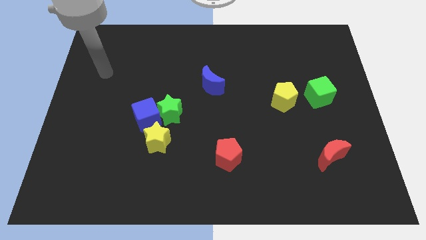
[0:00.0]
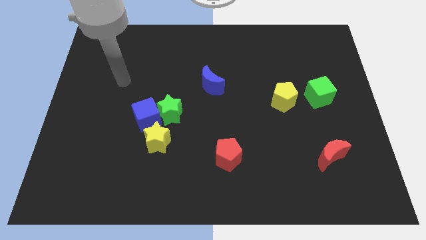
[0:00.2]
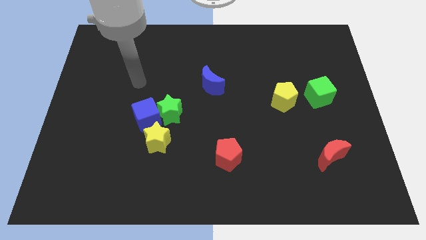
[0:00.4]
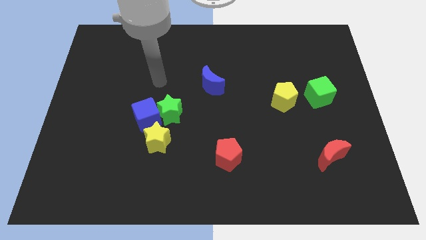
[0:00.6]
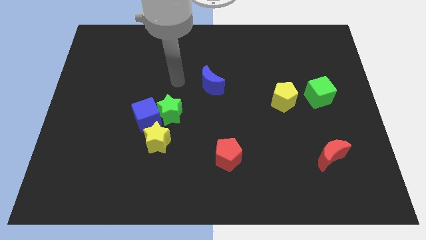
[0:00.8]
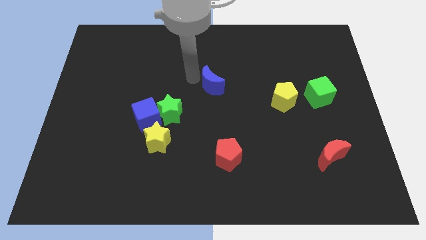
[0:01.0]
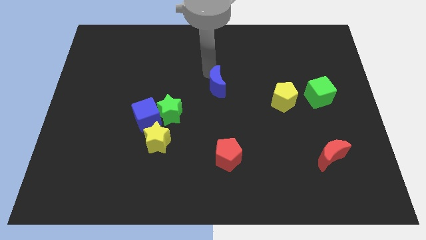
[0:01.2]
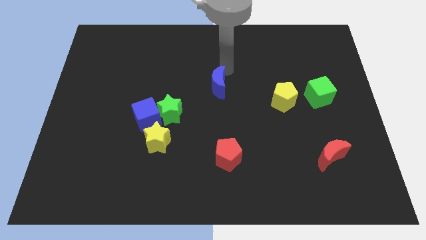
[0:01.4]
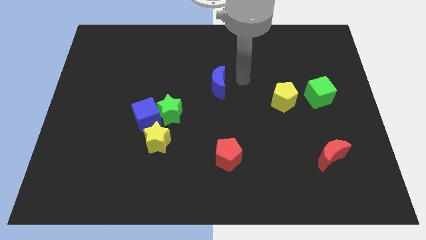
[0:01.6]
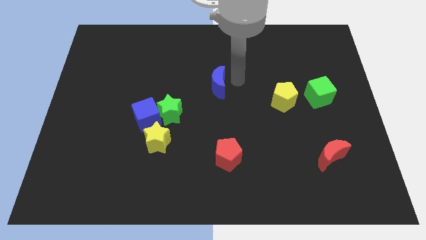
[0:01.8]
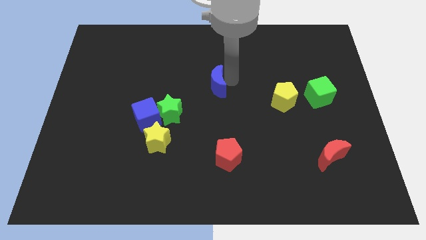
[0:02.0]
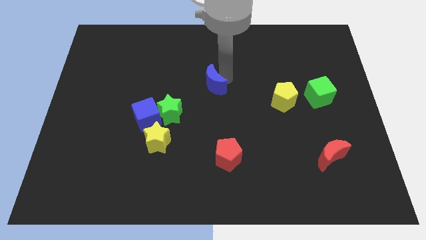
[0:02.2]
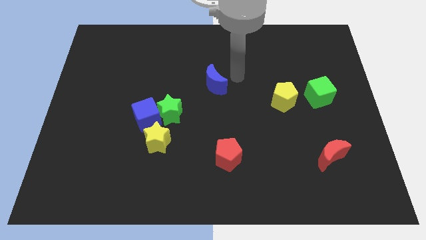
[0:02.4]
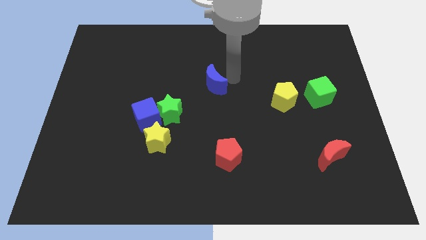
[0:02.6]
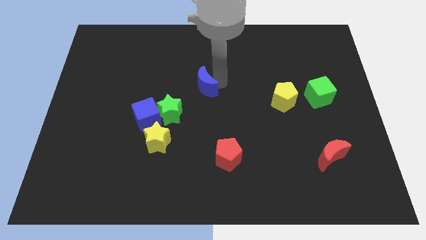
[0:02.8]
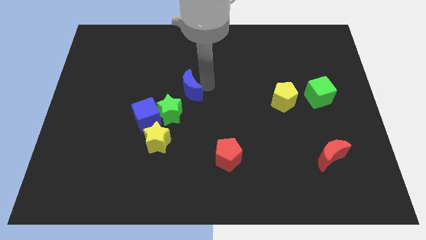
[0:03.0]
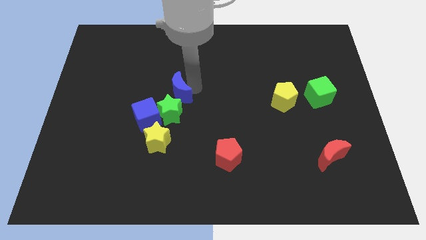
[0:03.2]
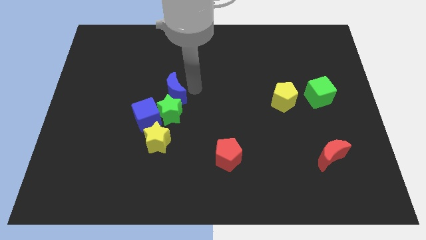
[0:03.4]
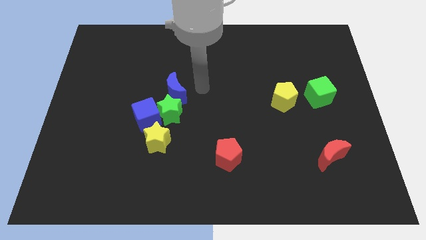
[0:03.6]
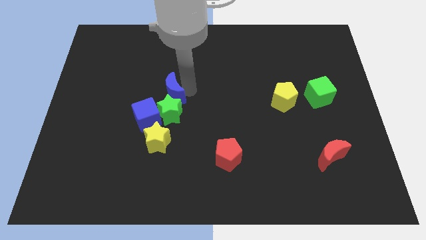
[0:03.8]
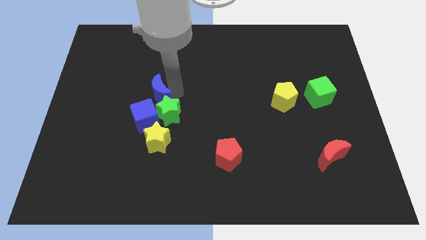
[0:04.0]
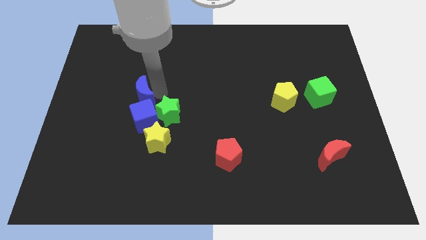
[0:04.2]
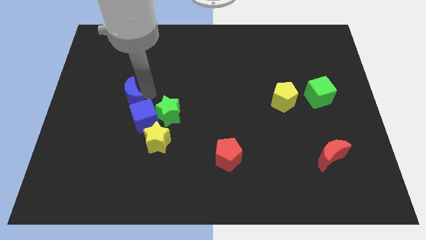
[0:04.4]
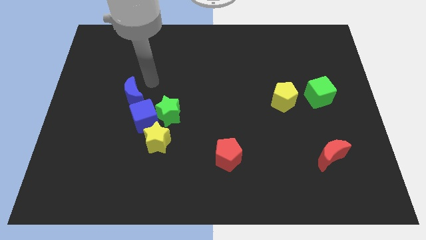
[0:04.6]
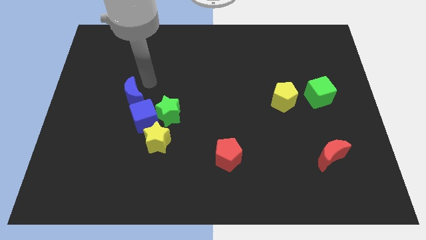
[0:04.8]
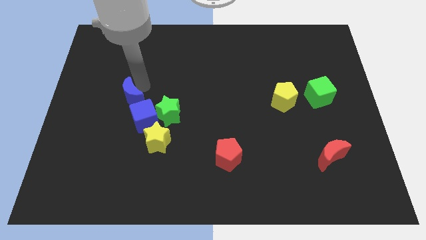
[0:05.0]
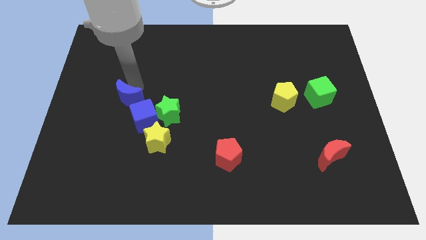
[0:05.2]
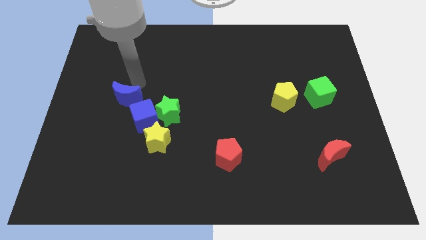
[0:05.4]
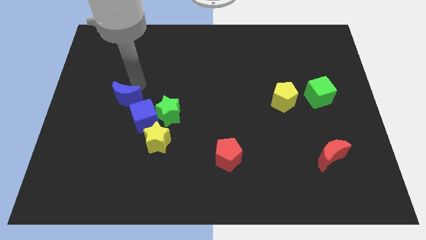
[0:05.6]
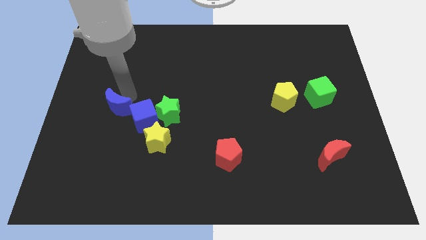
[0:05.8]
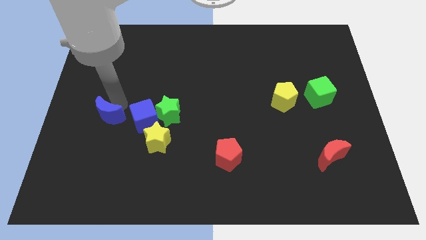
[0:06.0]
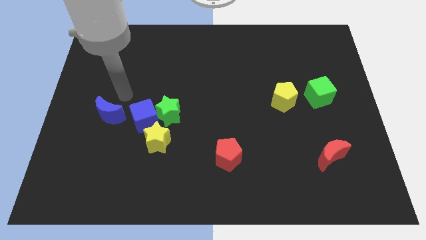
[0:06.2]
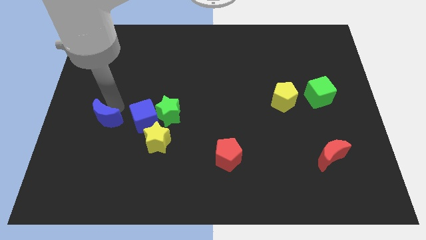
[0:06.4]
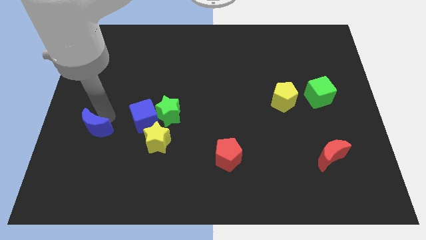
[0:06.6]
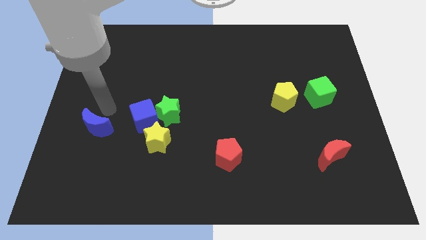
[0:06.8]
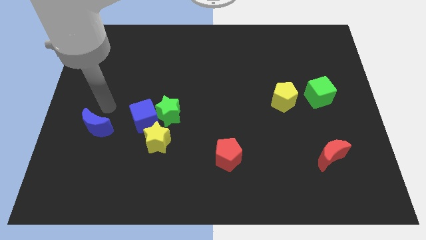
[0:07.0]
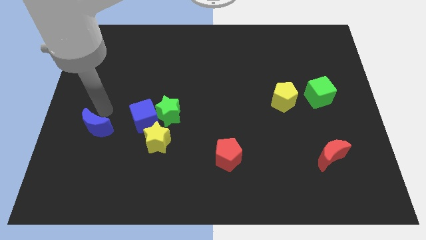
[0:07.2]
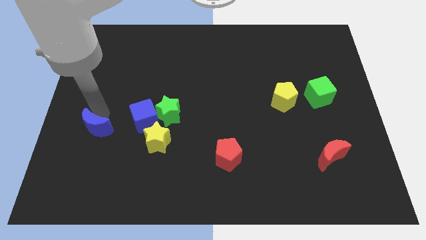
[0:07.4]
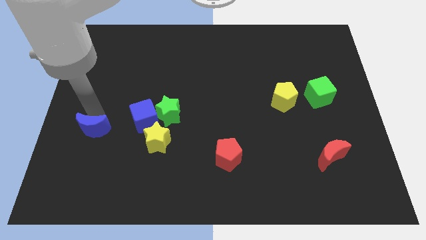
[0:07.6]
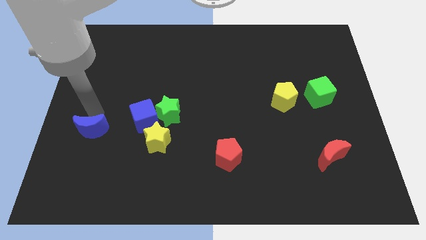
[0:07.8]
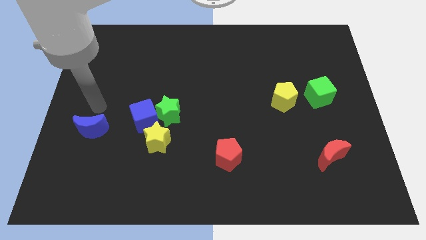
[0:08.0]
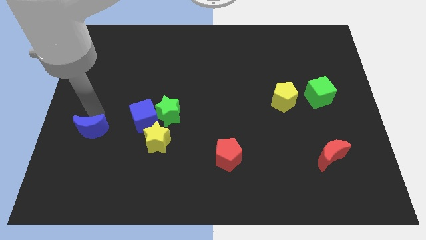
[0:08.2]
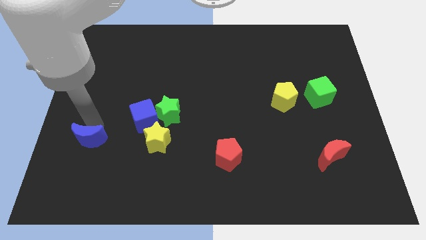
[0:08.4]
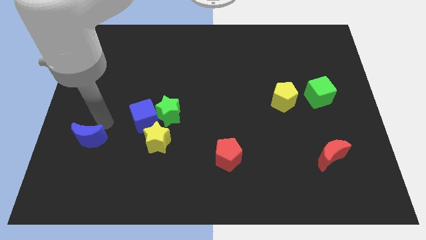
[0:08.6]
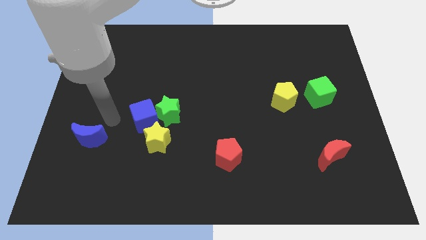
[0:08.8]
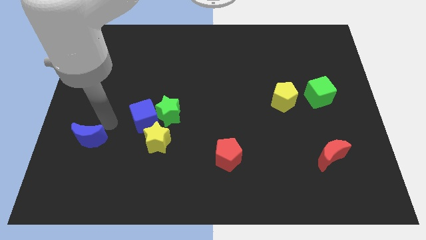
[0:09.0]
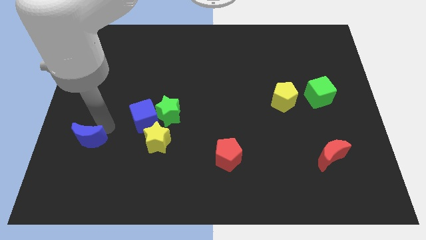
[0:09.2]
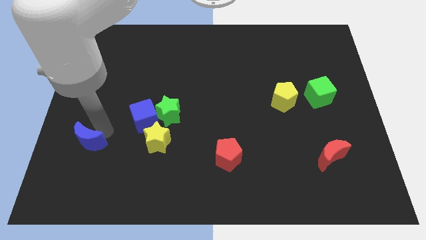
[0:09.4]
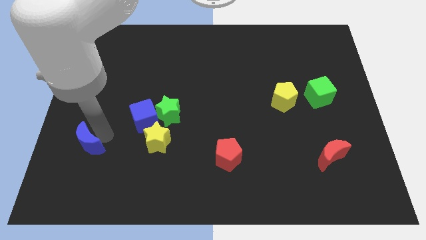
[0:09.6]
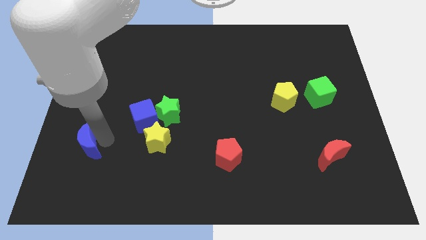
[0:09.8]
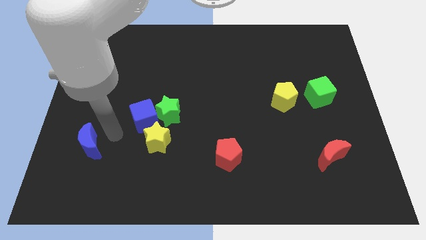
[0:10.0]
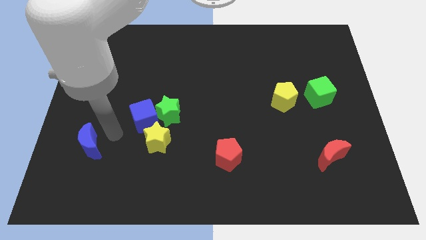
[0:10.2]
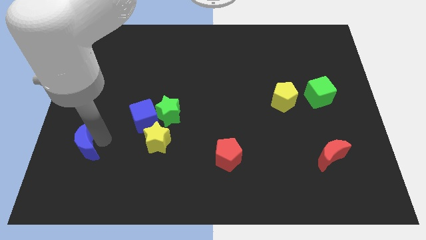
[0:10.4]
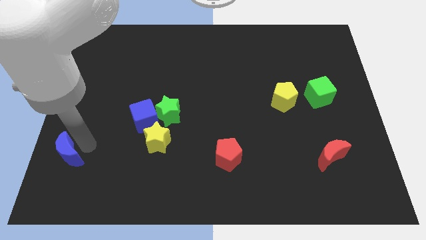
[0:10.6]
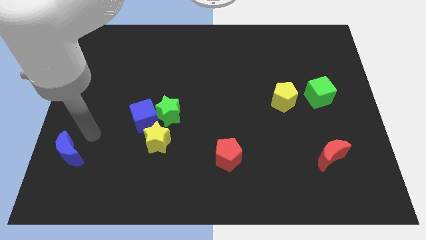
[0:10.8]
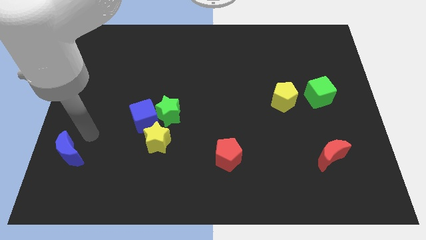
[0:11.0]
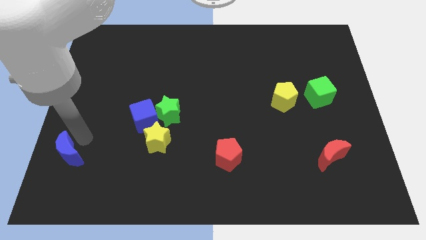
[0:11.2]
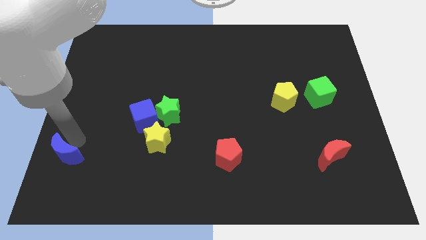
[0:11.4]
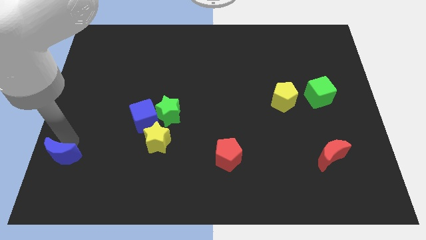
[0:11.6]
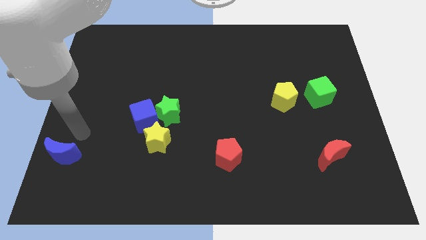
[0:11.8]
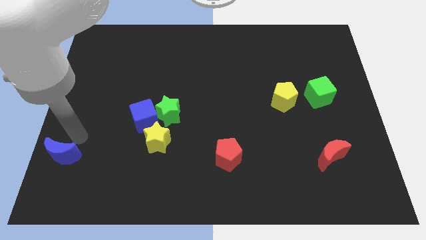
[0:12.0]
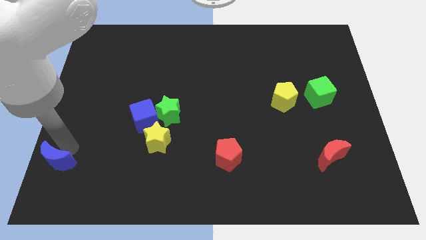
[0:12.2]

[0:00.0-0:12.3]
put the blue moon to the bottom left of the board
